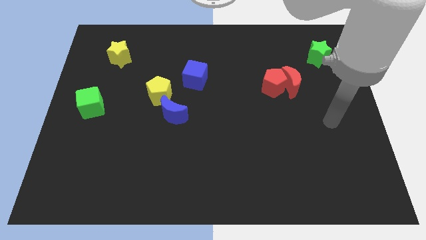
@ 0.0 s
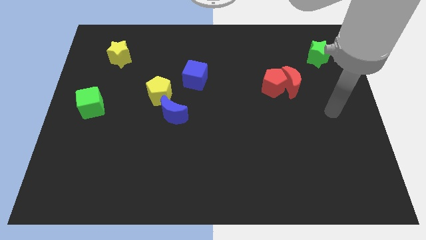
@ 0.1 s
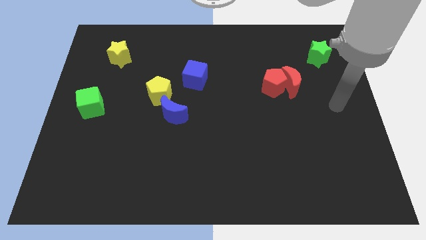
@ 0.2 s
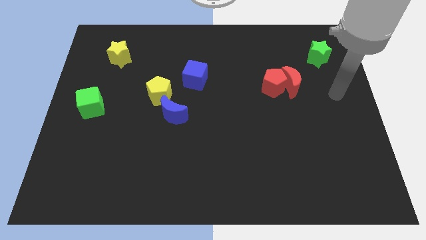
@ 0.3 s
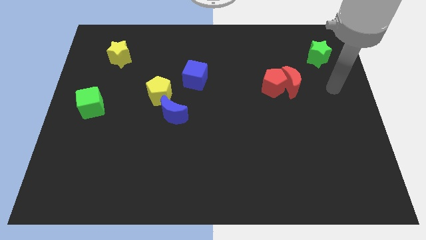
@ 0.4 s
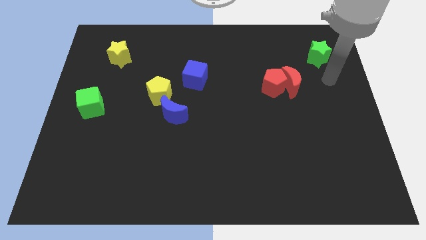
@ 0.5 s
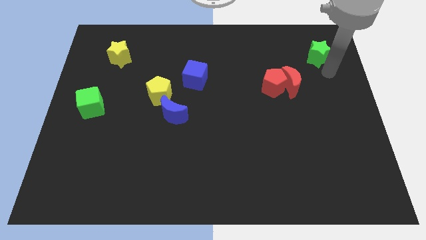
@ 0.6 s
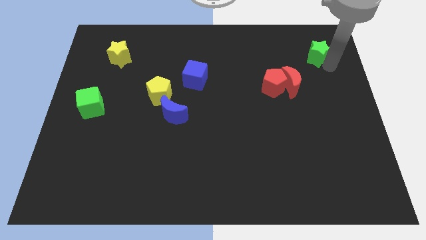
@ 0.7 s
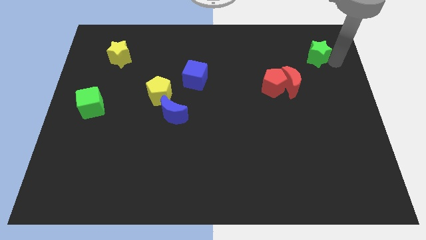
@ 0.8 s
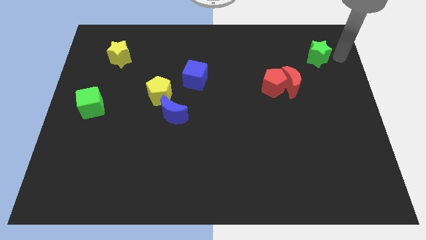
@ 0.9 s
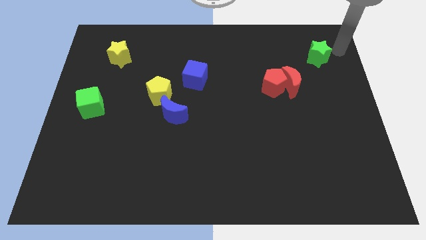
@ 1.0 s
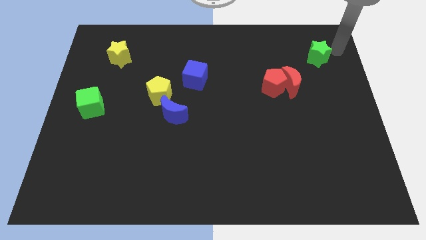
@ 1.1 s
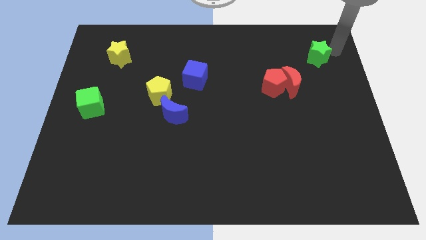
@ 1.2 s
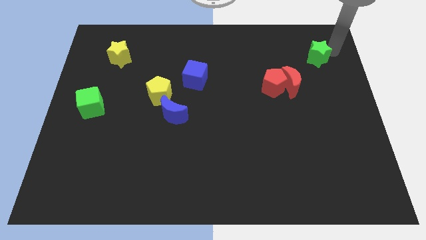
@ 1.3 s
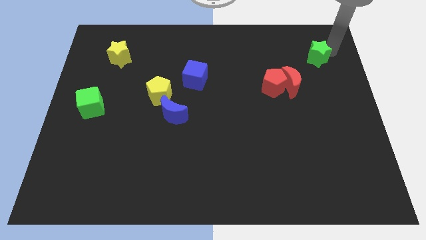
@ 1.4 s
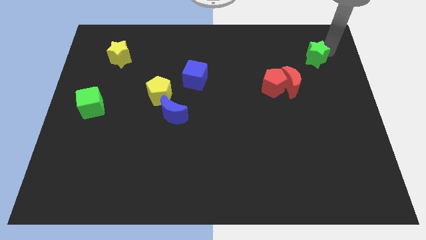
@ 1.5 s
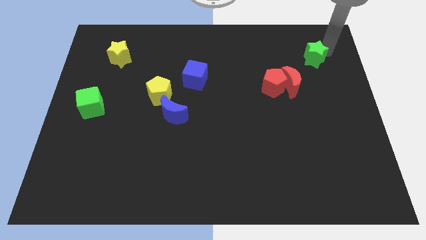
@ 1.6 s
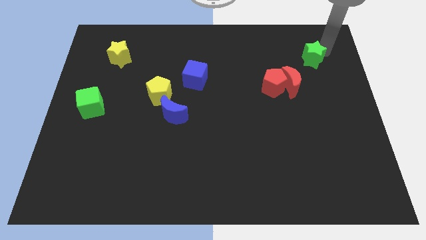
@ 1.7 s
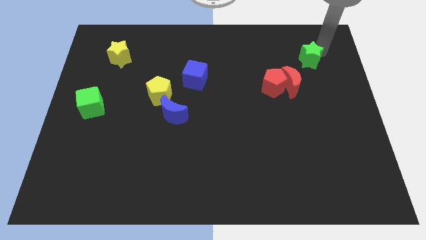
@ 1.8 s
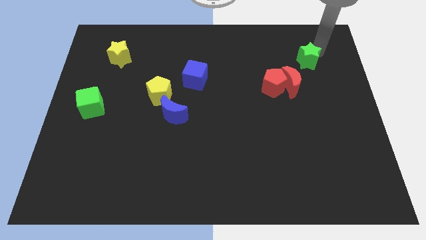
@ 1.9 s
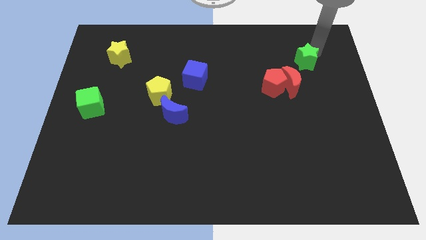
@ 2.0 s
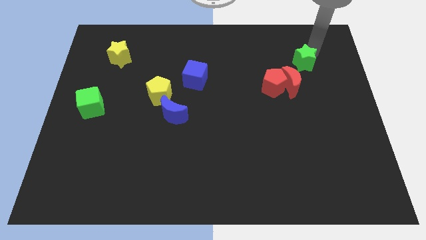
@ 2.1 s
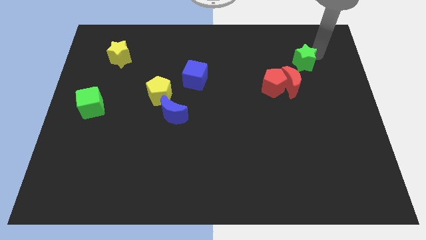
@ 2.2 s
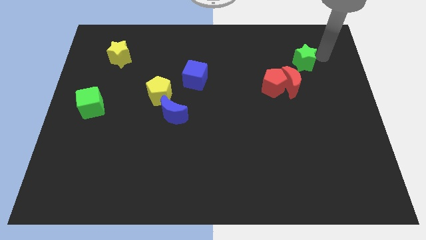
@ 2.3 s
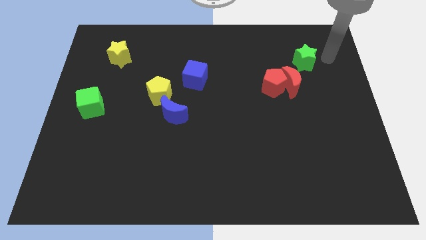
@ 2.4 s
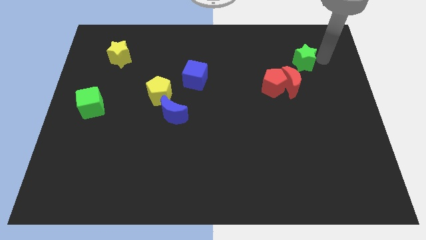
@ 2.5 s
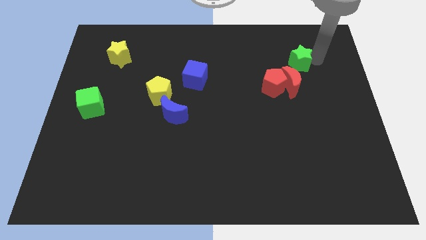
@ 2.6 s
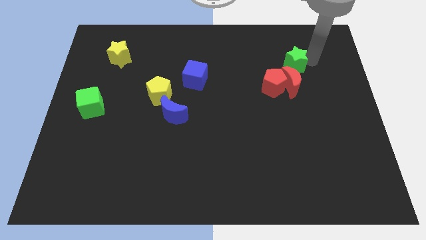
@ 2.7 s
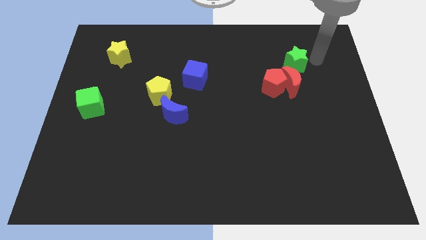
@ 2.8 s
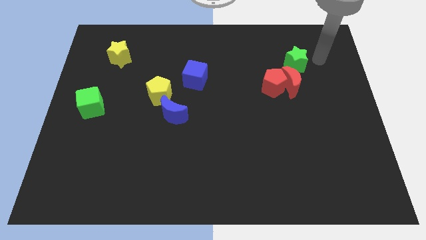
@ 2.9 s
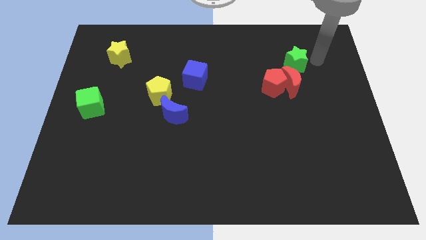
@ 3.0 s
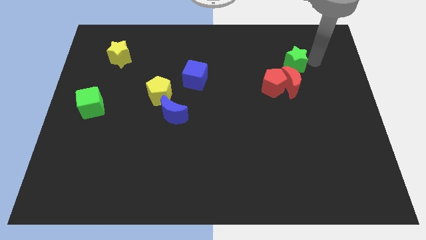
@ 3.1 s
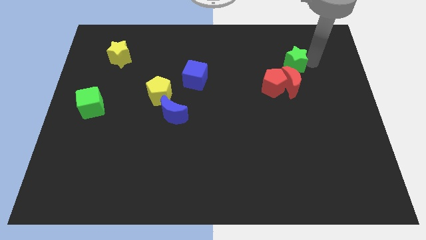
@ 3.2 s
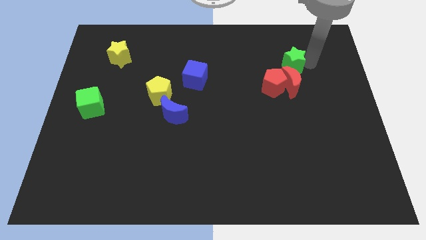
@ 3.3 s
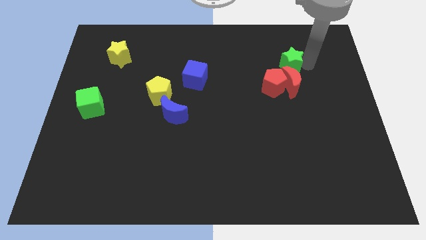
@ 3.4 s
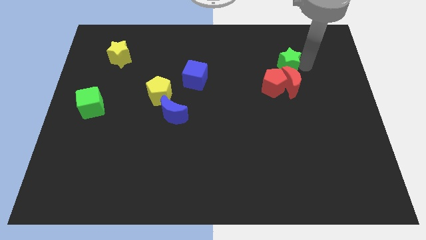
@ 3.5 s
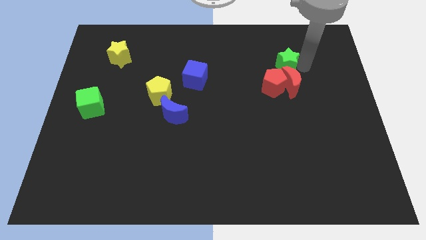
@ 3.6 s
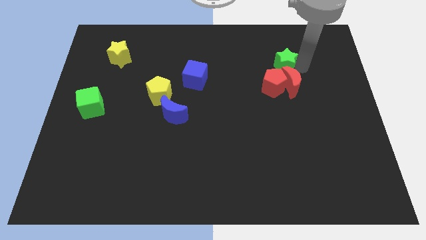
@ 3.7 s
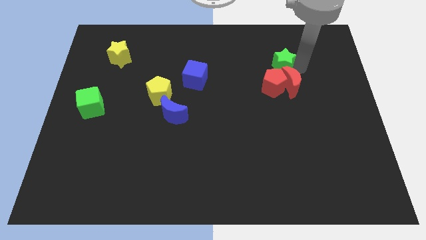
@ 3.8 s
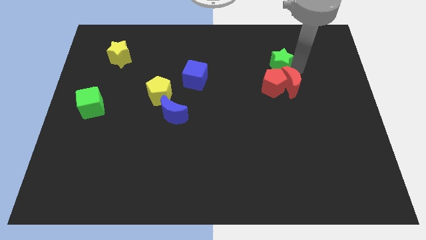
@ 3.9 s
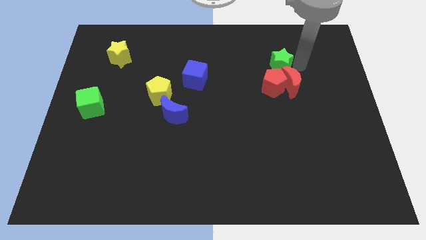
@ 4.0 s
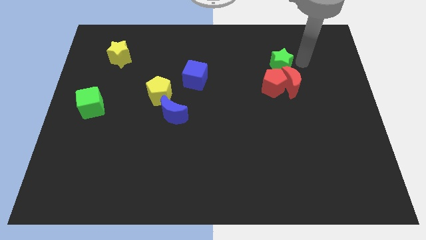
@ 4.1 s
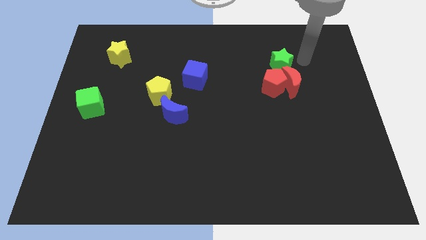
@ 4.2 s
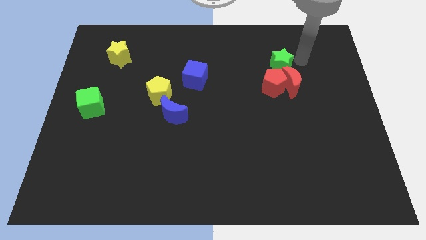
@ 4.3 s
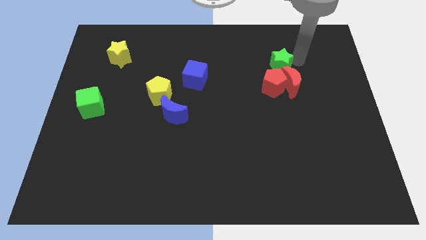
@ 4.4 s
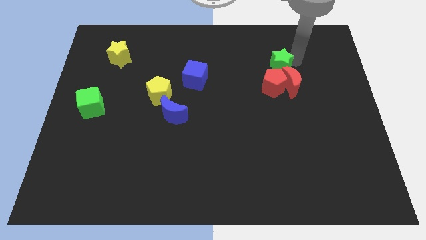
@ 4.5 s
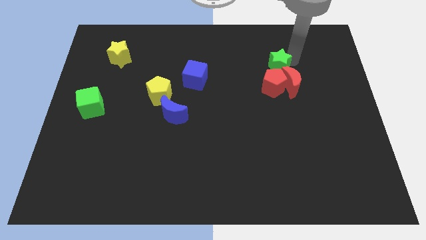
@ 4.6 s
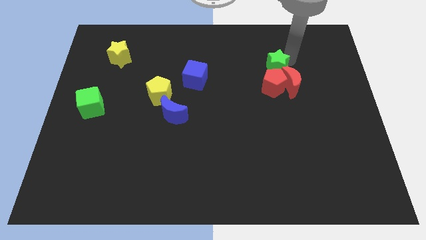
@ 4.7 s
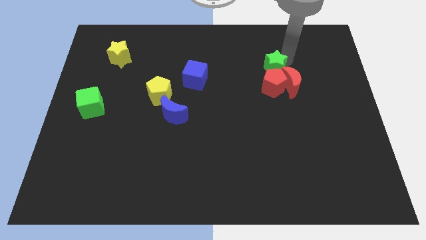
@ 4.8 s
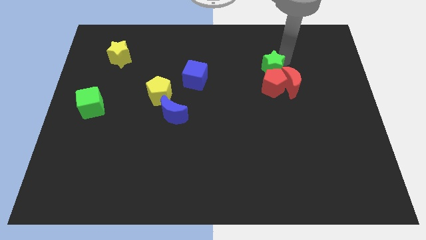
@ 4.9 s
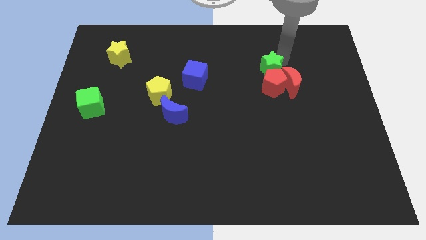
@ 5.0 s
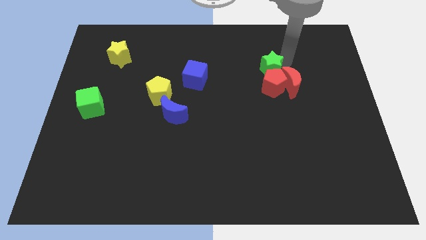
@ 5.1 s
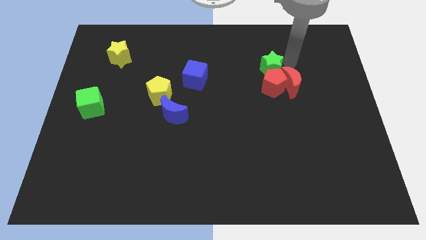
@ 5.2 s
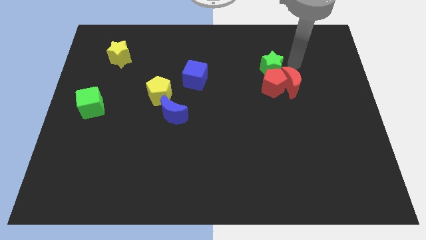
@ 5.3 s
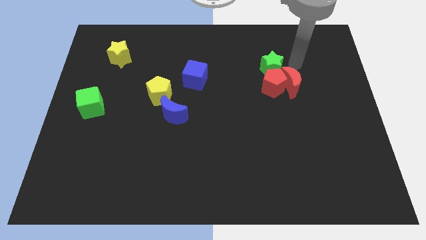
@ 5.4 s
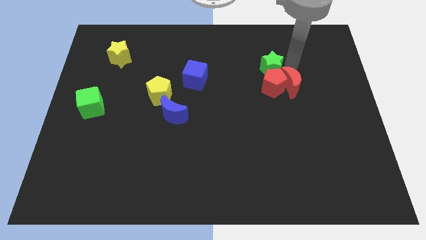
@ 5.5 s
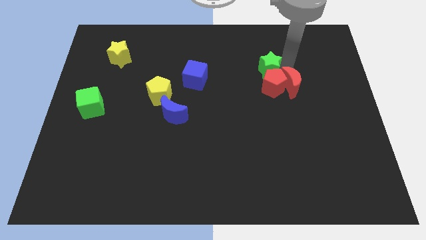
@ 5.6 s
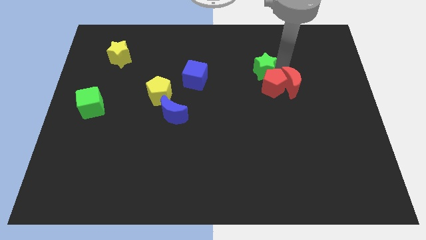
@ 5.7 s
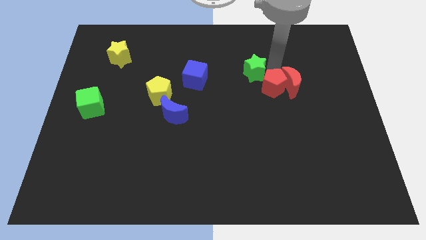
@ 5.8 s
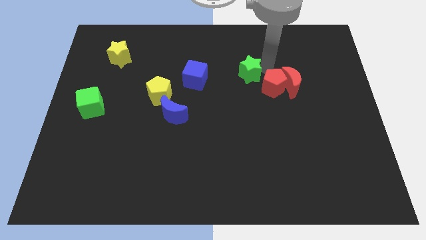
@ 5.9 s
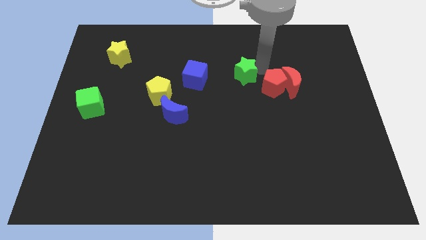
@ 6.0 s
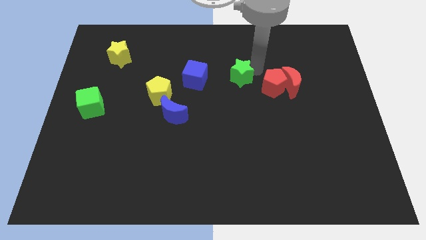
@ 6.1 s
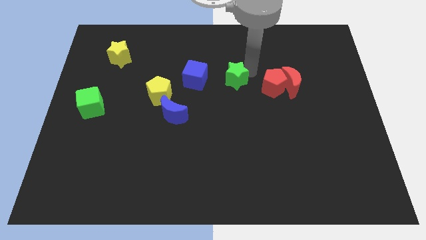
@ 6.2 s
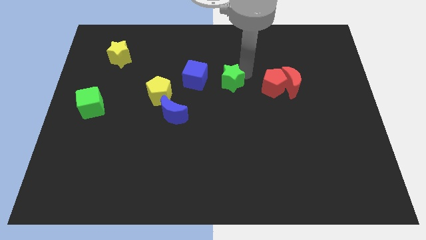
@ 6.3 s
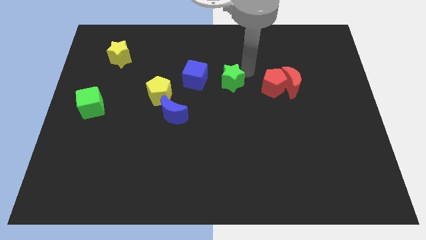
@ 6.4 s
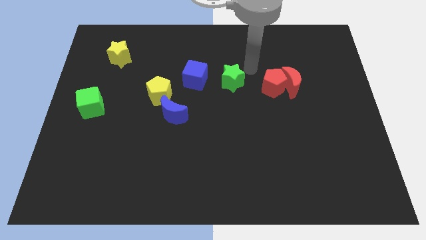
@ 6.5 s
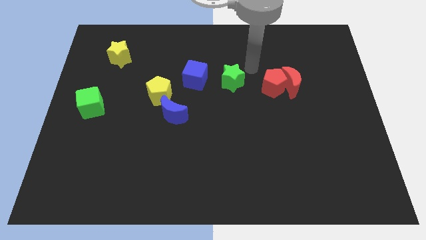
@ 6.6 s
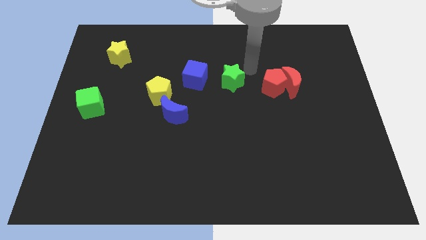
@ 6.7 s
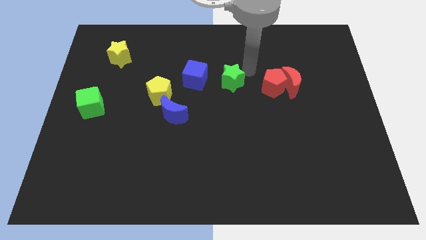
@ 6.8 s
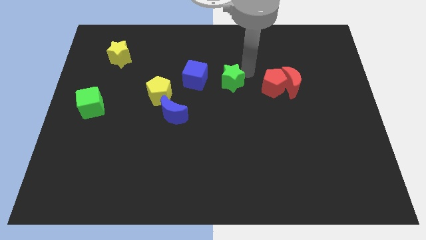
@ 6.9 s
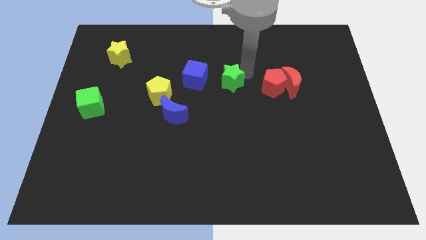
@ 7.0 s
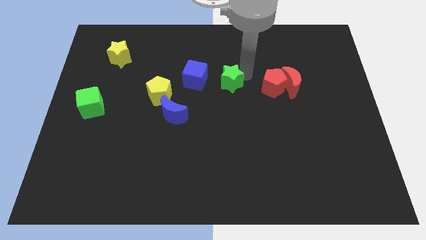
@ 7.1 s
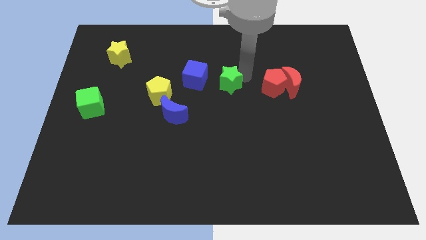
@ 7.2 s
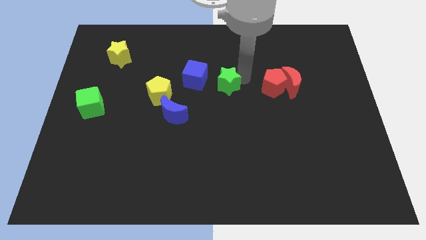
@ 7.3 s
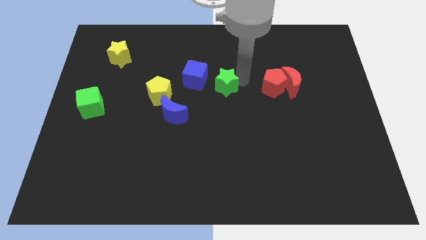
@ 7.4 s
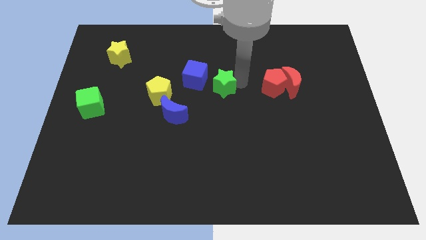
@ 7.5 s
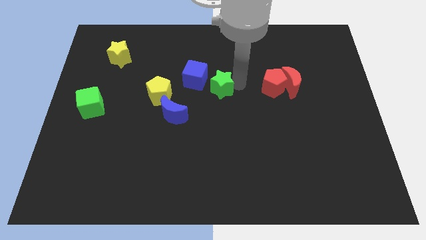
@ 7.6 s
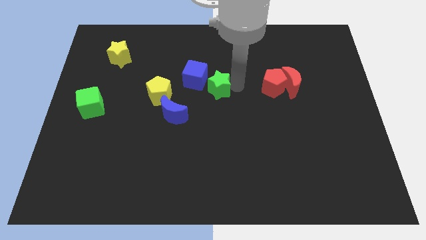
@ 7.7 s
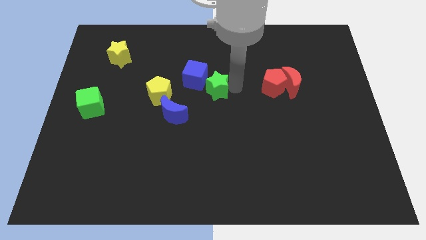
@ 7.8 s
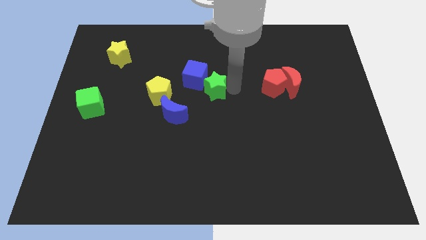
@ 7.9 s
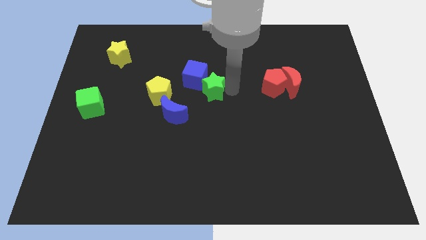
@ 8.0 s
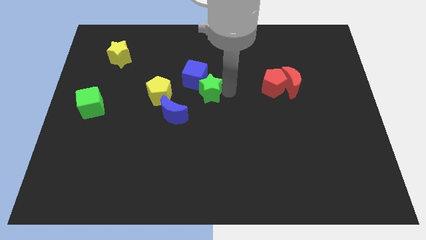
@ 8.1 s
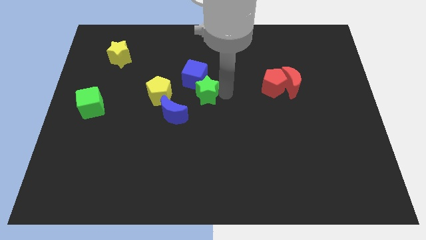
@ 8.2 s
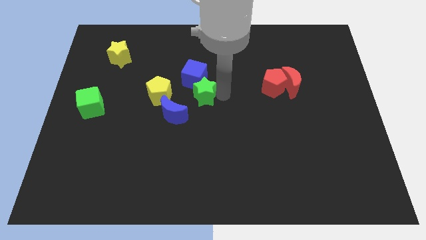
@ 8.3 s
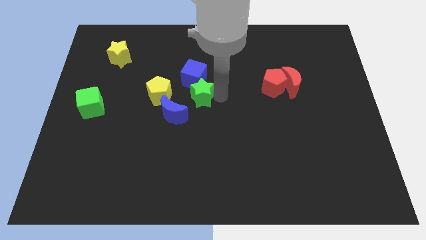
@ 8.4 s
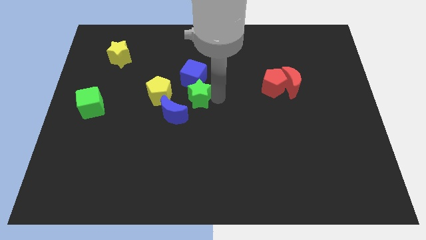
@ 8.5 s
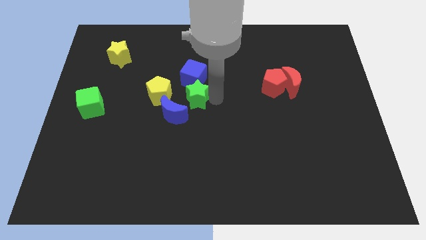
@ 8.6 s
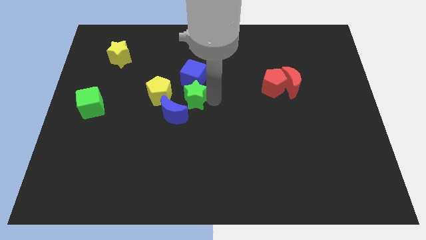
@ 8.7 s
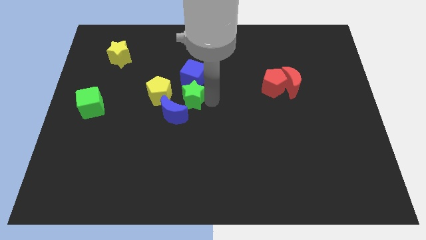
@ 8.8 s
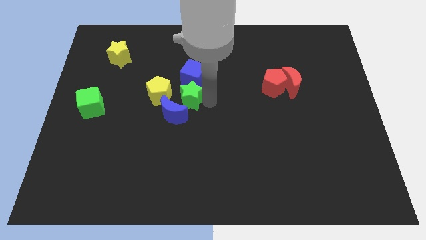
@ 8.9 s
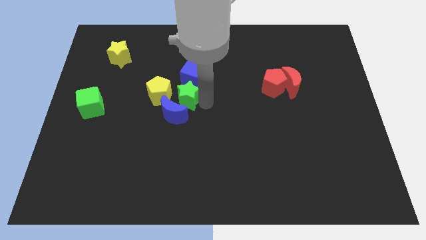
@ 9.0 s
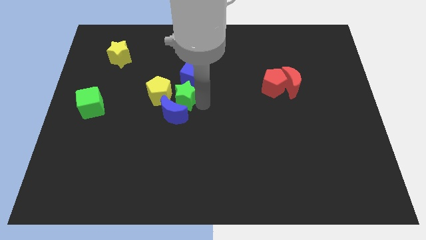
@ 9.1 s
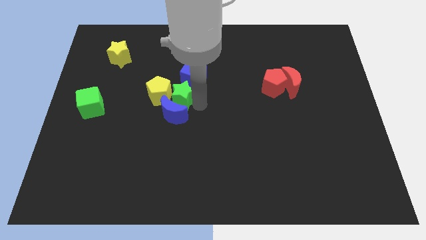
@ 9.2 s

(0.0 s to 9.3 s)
slide the green star close to the yellow pentagon
